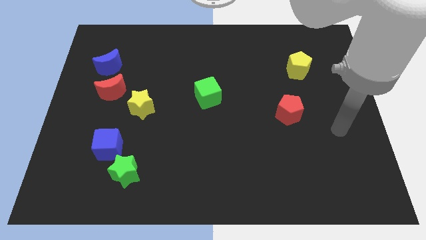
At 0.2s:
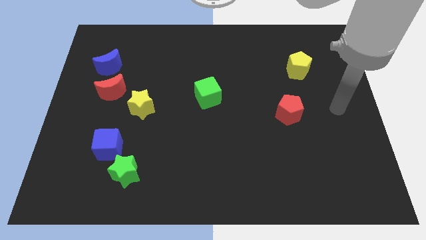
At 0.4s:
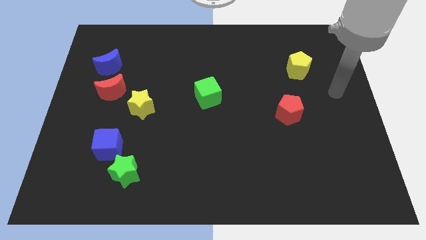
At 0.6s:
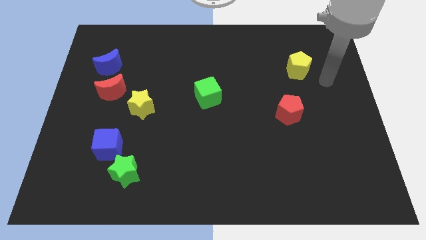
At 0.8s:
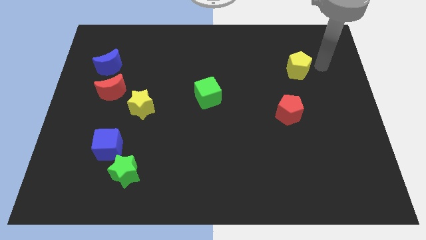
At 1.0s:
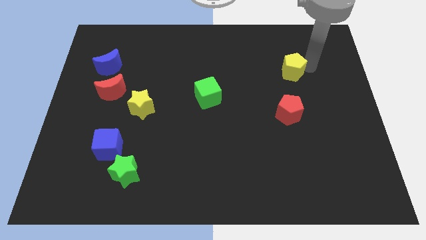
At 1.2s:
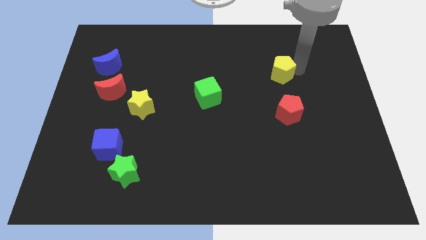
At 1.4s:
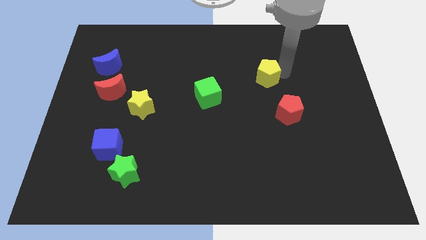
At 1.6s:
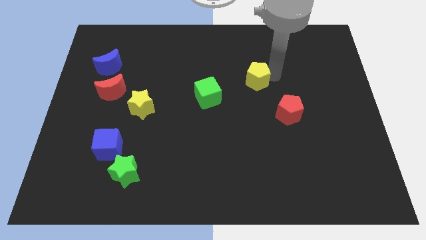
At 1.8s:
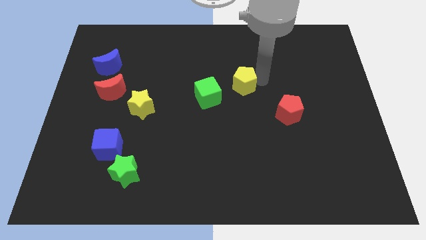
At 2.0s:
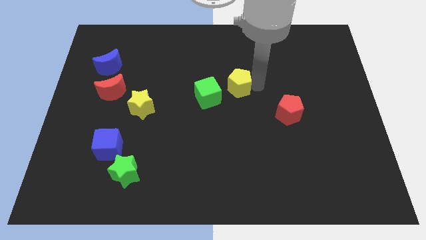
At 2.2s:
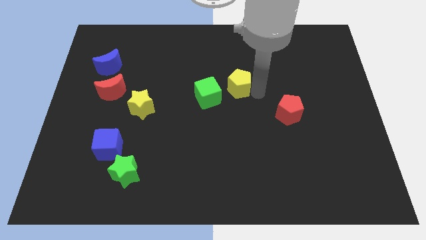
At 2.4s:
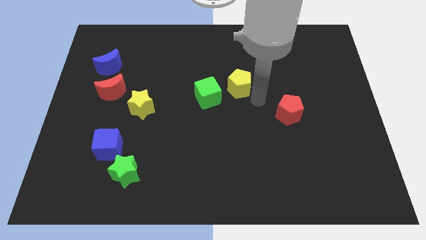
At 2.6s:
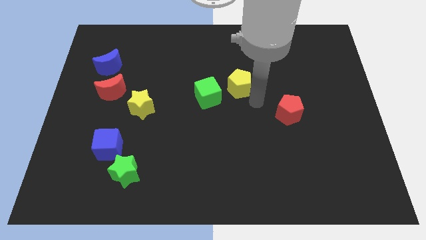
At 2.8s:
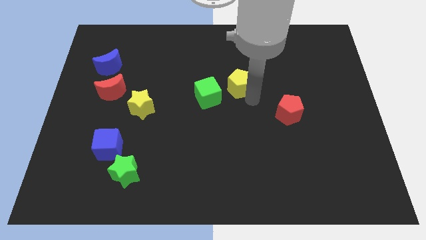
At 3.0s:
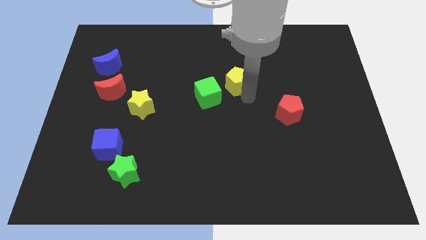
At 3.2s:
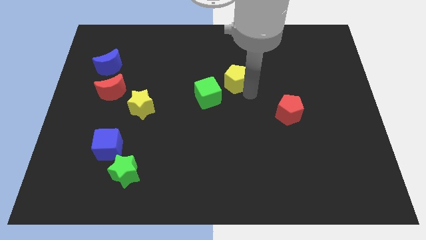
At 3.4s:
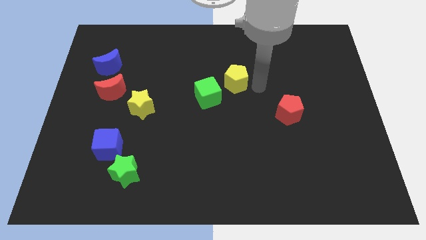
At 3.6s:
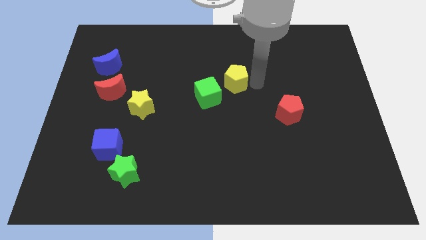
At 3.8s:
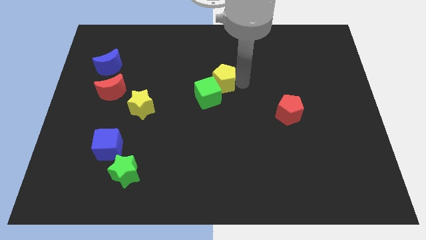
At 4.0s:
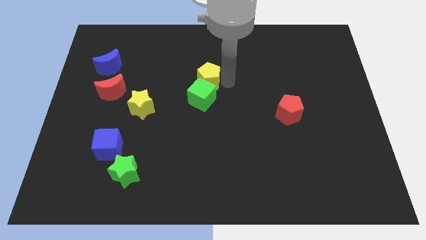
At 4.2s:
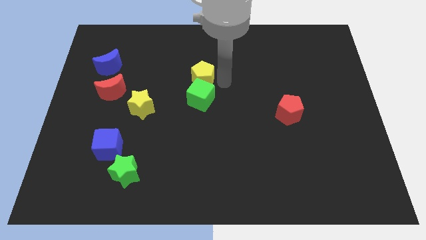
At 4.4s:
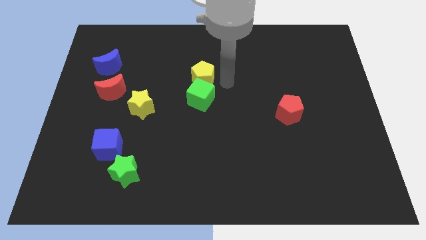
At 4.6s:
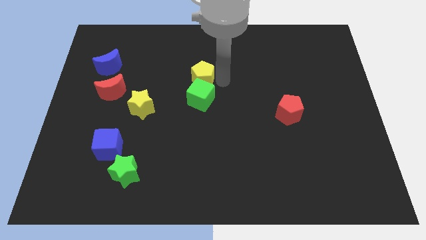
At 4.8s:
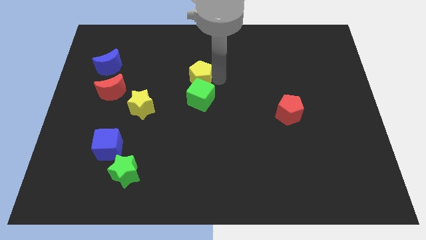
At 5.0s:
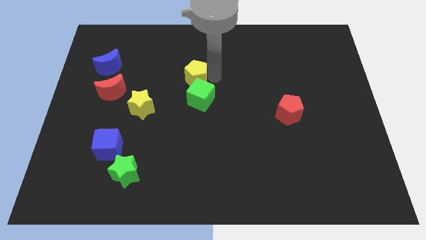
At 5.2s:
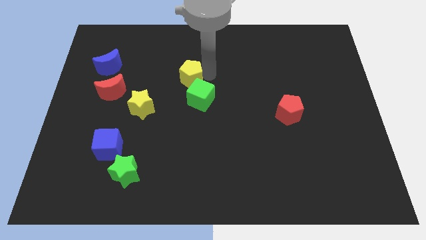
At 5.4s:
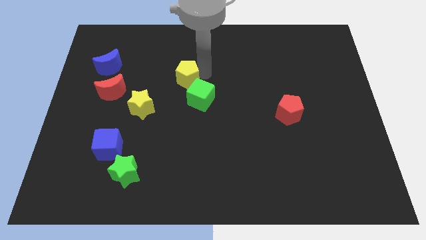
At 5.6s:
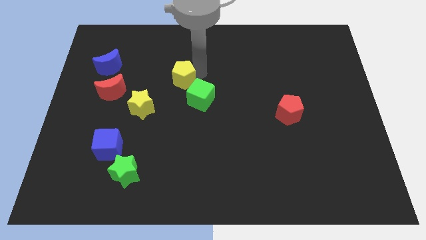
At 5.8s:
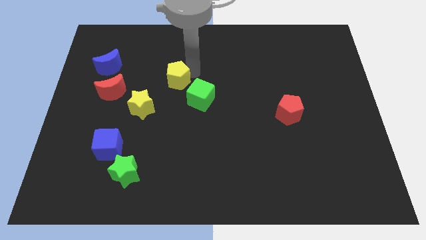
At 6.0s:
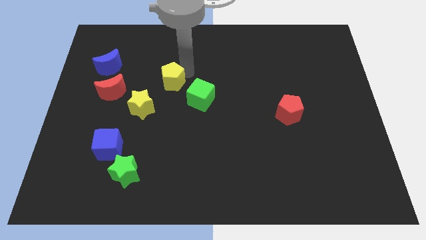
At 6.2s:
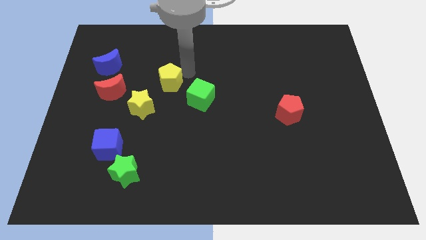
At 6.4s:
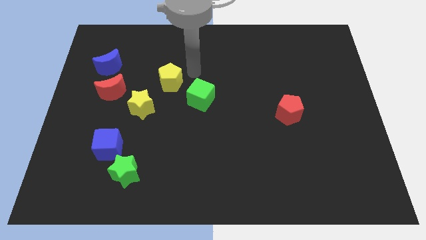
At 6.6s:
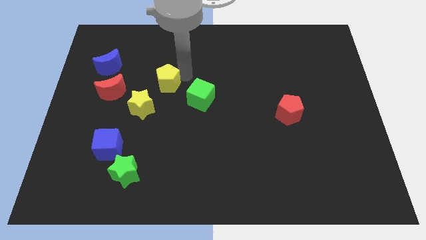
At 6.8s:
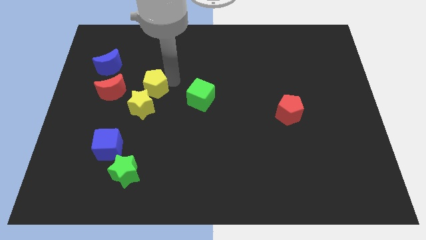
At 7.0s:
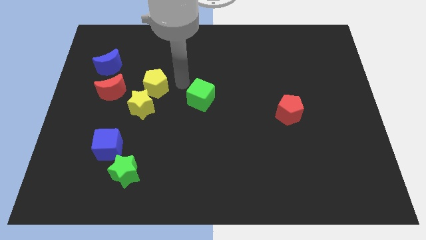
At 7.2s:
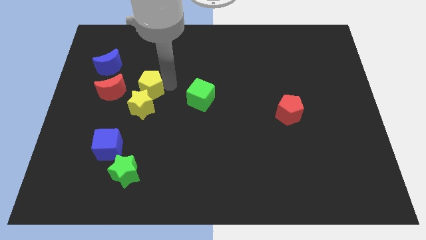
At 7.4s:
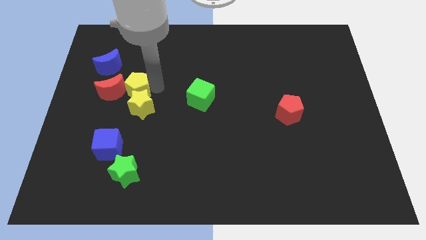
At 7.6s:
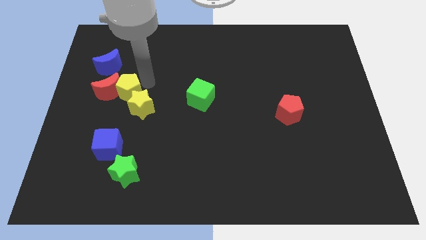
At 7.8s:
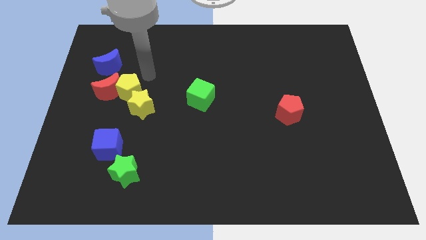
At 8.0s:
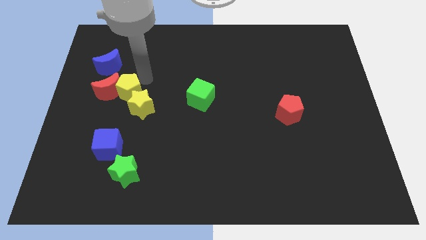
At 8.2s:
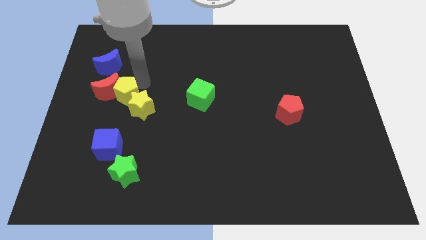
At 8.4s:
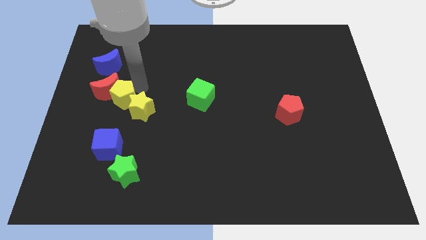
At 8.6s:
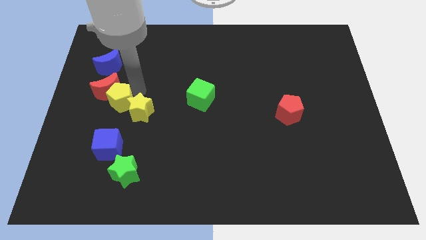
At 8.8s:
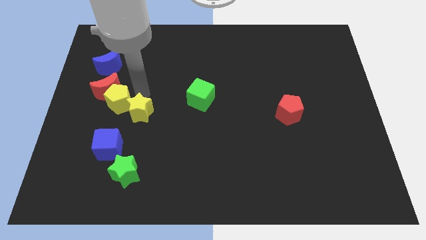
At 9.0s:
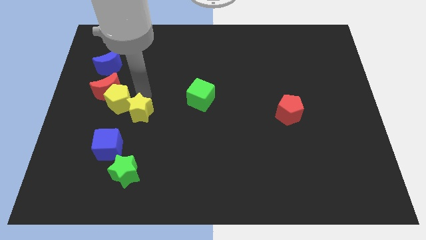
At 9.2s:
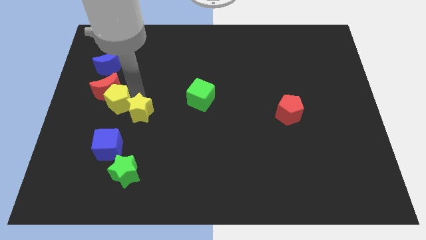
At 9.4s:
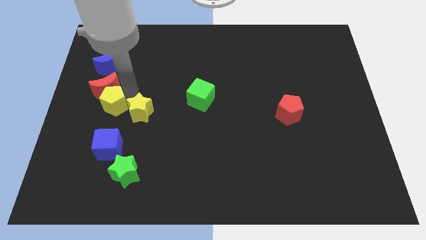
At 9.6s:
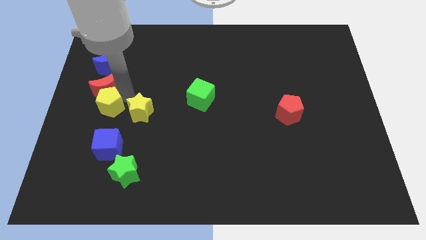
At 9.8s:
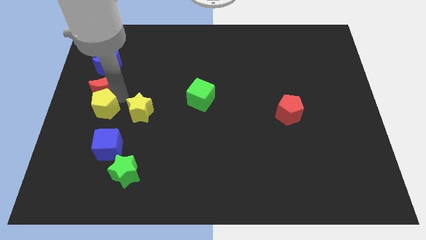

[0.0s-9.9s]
slide the yellow pentagon to the left side
